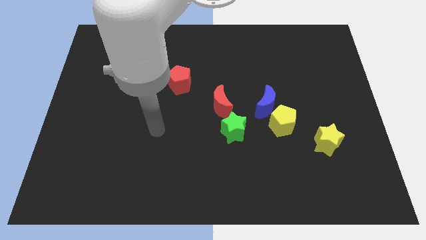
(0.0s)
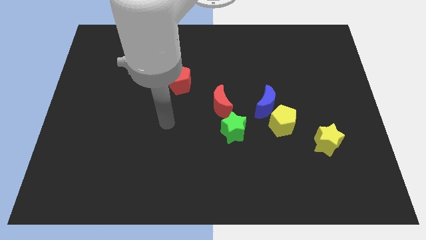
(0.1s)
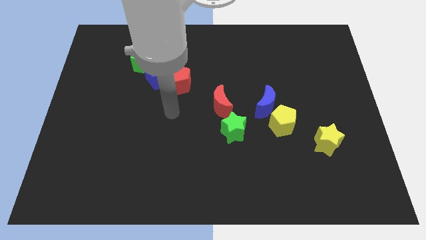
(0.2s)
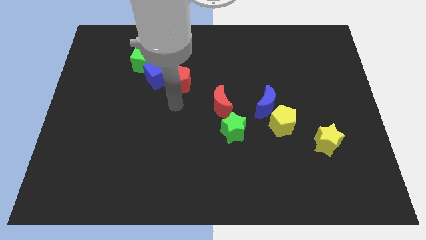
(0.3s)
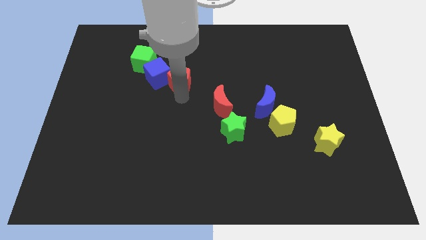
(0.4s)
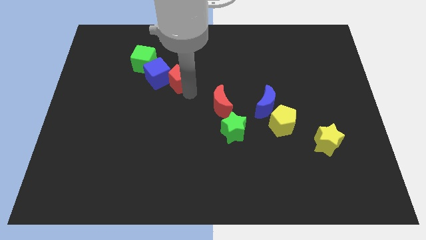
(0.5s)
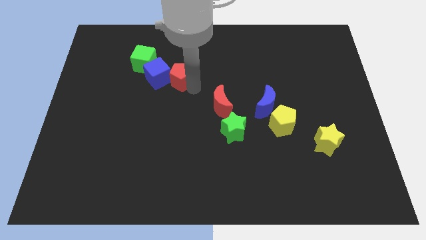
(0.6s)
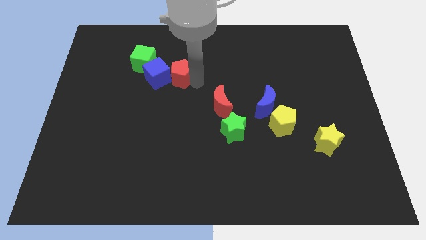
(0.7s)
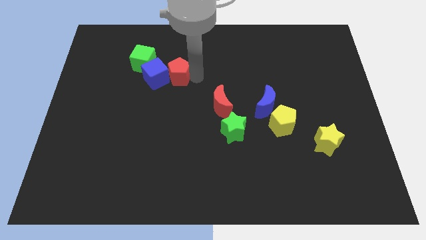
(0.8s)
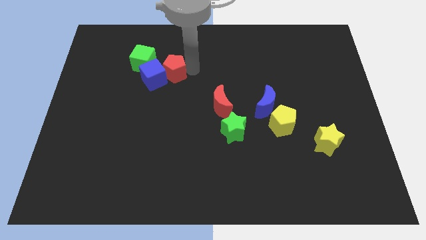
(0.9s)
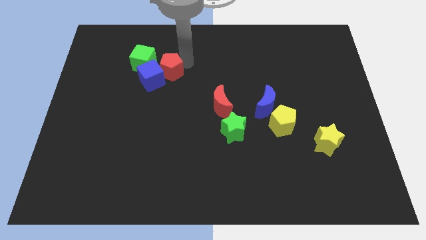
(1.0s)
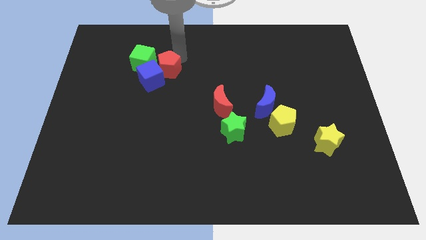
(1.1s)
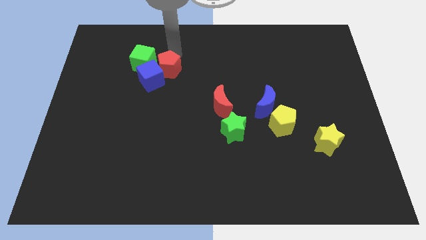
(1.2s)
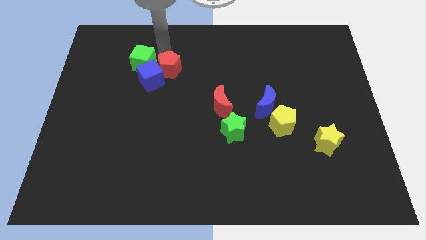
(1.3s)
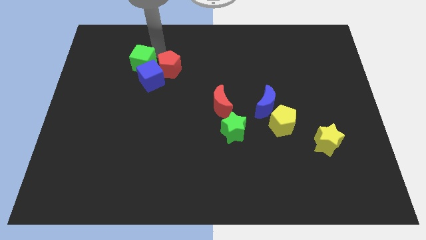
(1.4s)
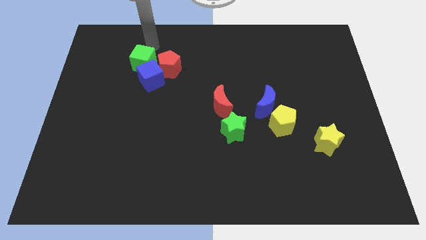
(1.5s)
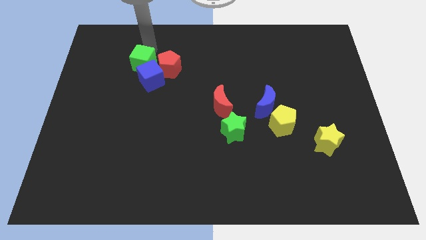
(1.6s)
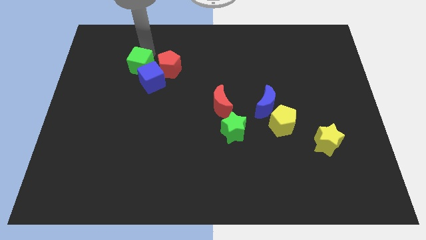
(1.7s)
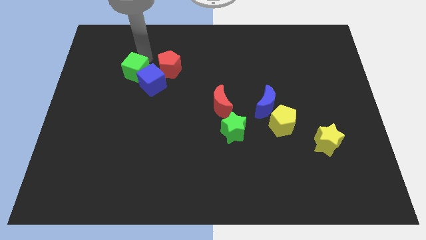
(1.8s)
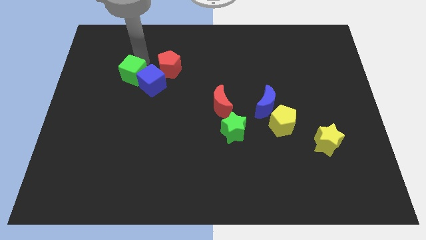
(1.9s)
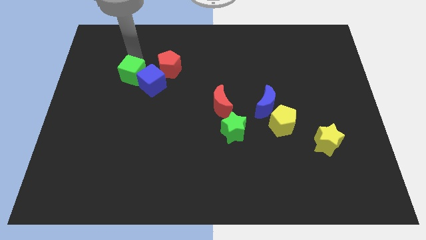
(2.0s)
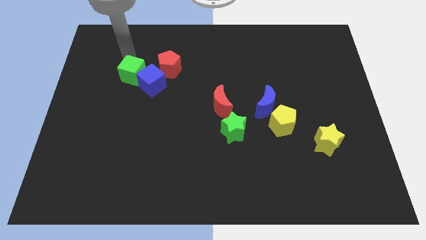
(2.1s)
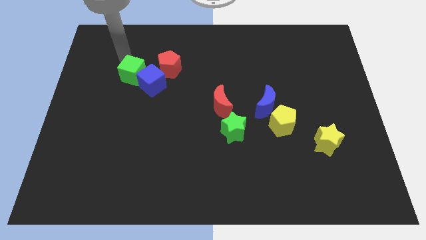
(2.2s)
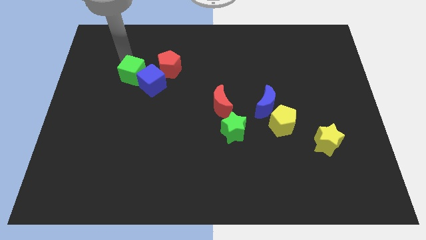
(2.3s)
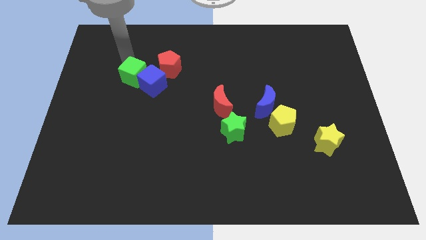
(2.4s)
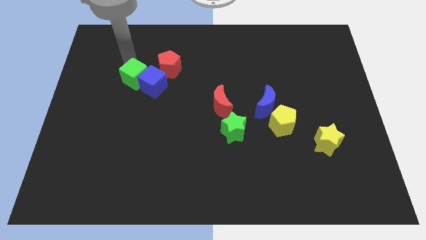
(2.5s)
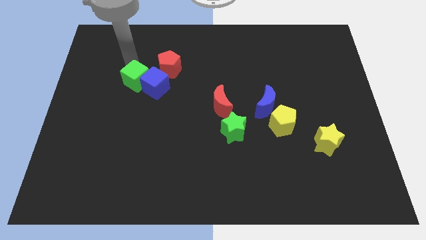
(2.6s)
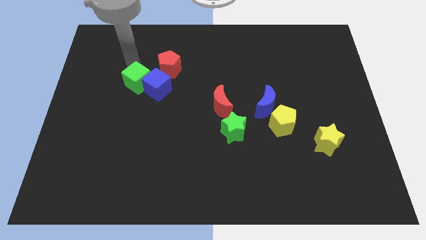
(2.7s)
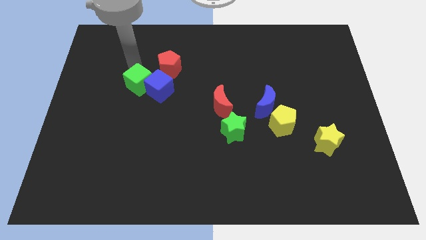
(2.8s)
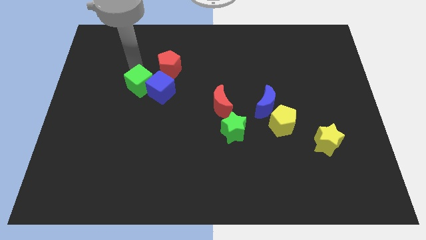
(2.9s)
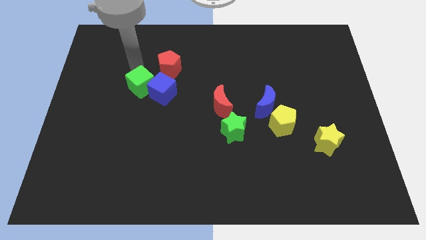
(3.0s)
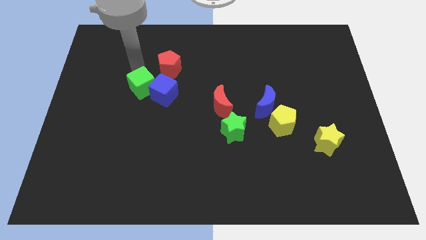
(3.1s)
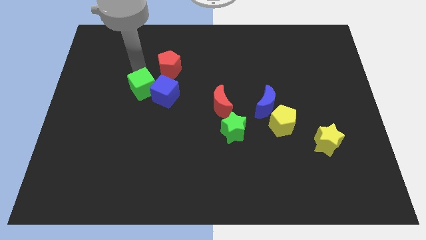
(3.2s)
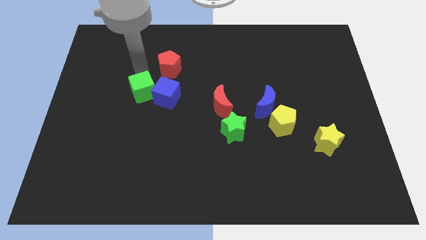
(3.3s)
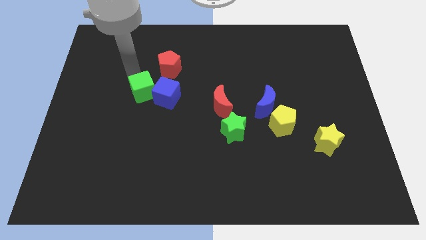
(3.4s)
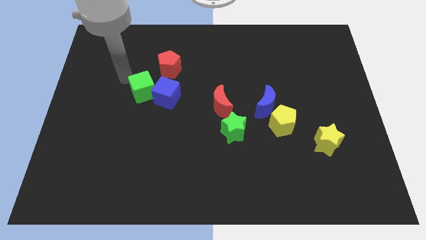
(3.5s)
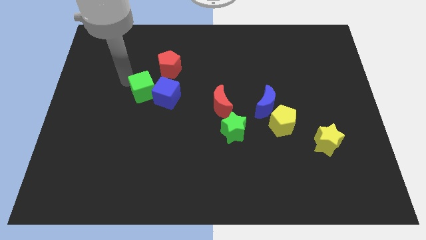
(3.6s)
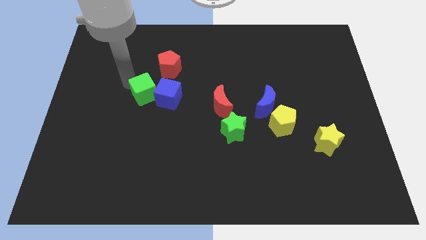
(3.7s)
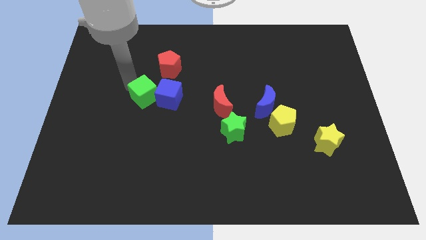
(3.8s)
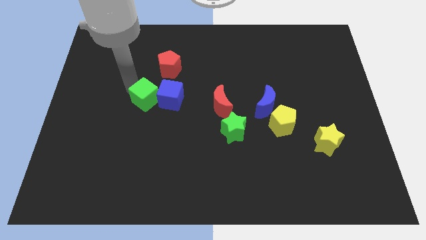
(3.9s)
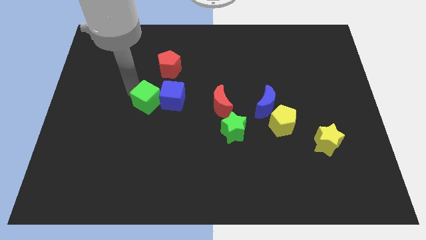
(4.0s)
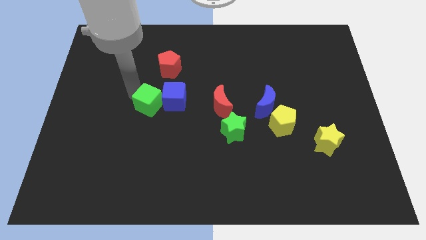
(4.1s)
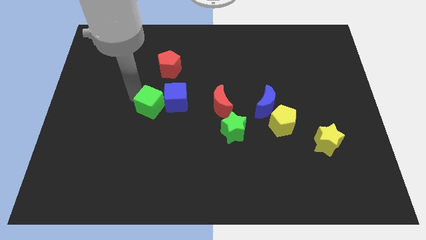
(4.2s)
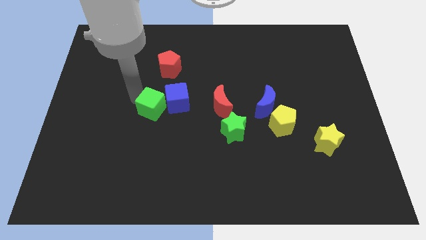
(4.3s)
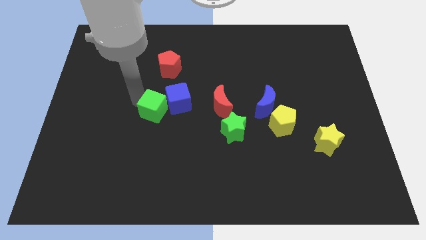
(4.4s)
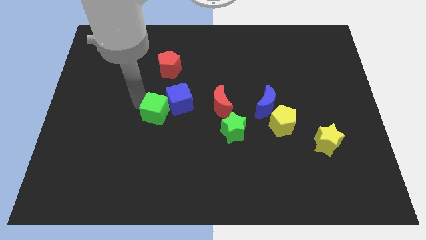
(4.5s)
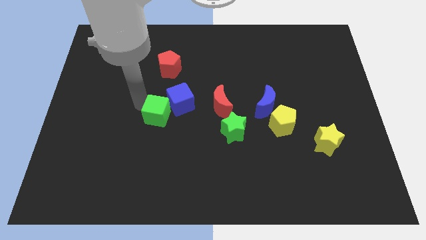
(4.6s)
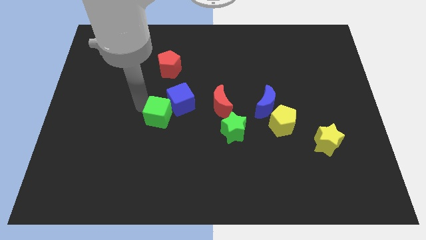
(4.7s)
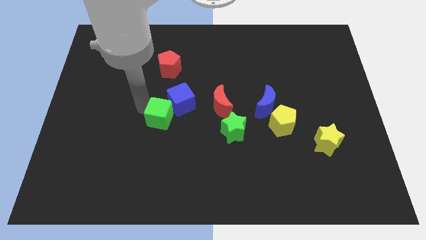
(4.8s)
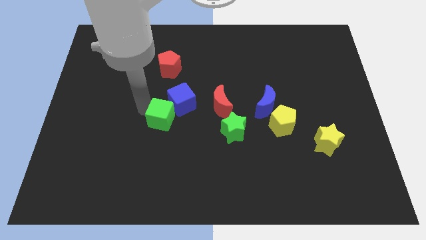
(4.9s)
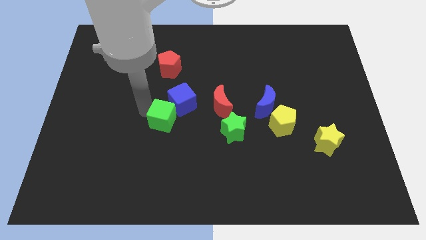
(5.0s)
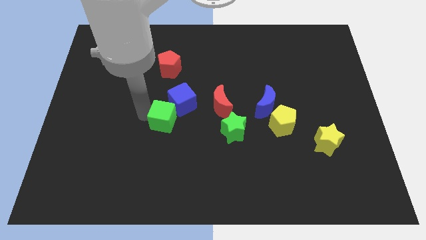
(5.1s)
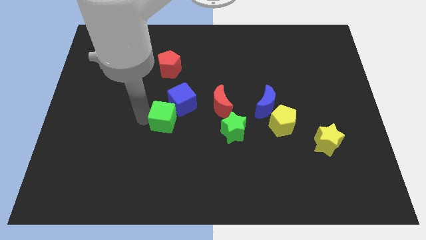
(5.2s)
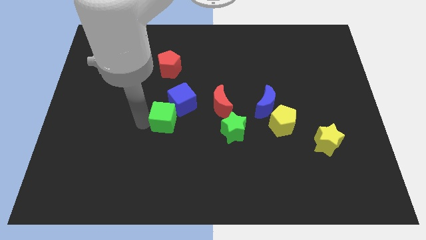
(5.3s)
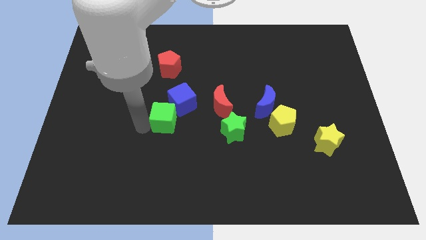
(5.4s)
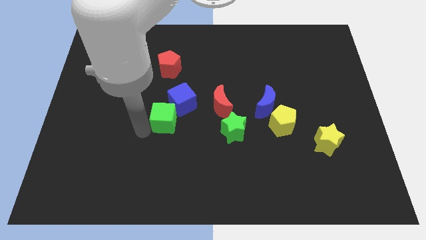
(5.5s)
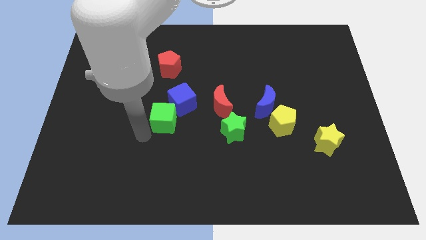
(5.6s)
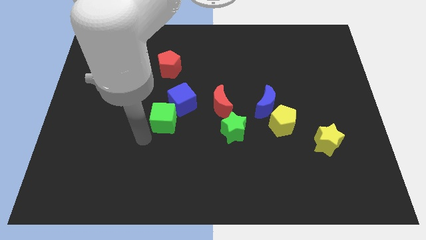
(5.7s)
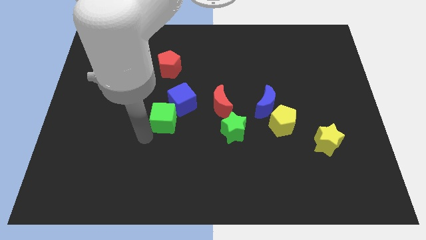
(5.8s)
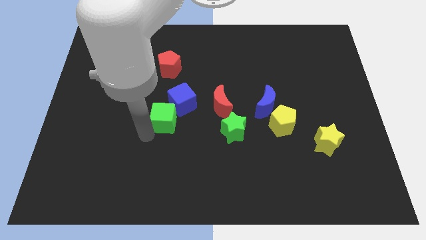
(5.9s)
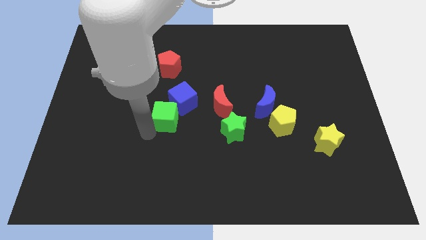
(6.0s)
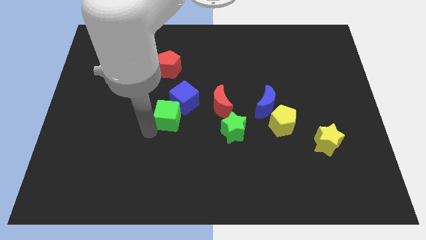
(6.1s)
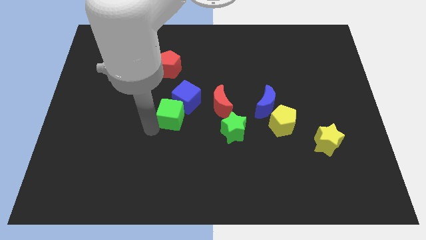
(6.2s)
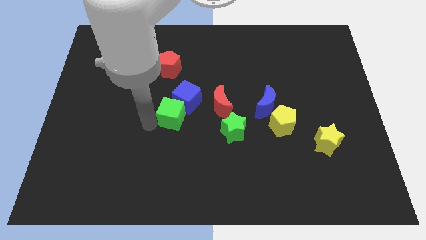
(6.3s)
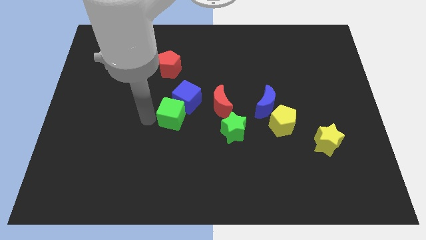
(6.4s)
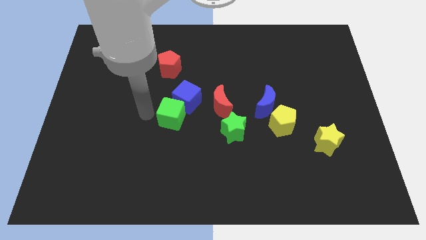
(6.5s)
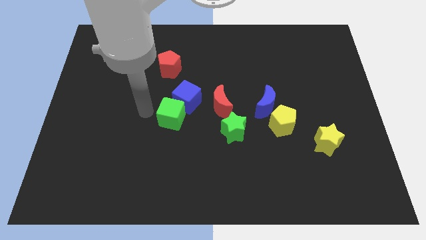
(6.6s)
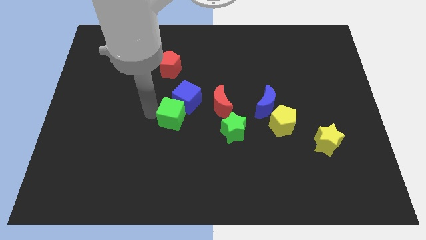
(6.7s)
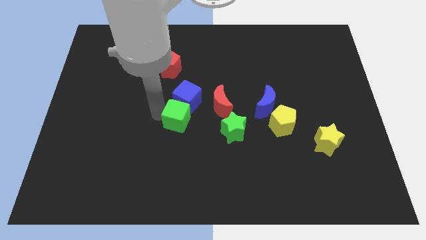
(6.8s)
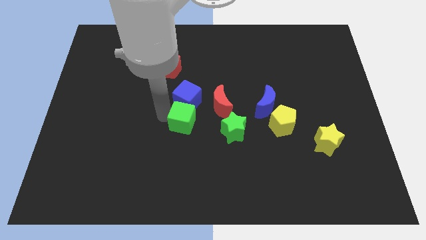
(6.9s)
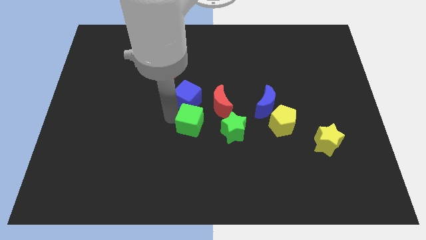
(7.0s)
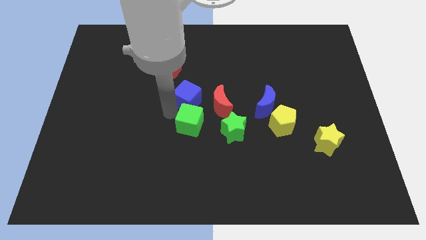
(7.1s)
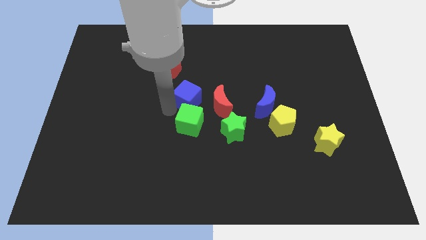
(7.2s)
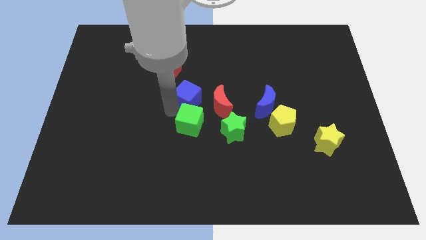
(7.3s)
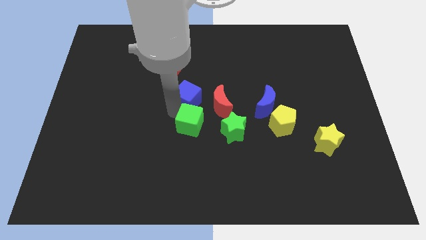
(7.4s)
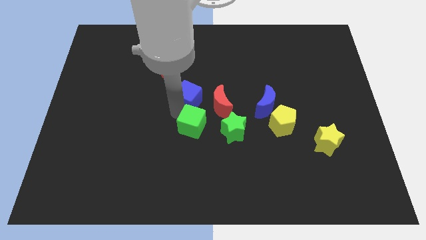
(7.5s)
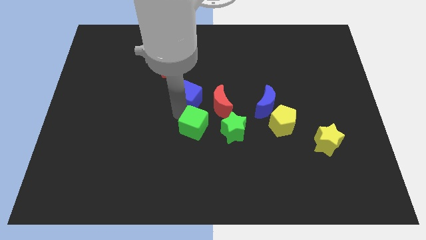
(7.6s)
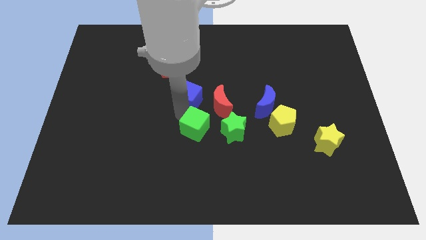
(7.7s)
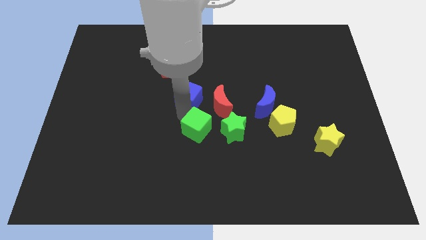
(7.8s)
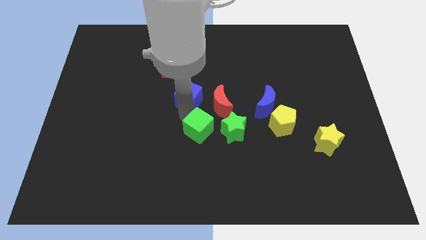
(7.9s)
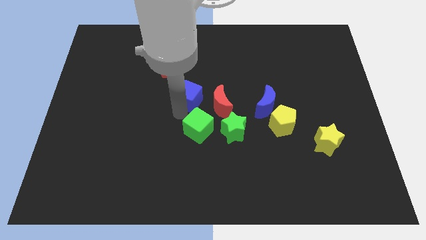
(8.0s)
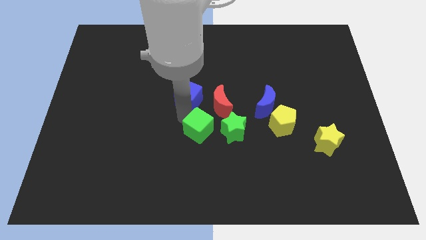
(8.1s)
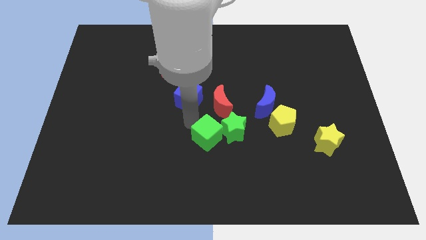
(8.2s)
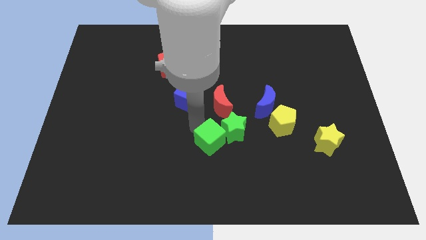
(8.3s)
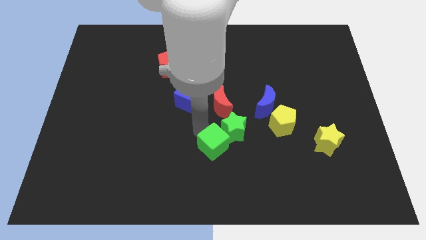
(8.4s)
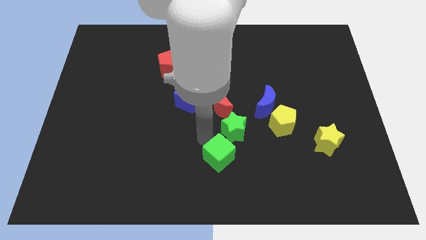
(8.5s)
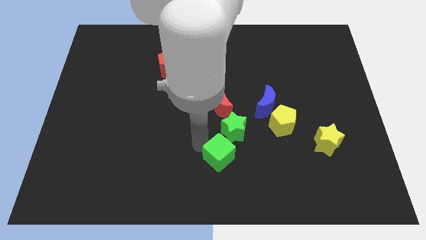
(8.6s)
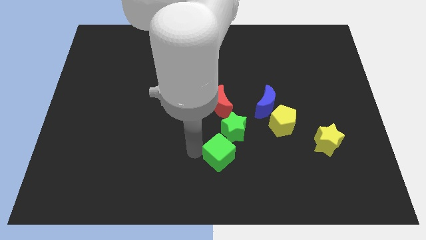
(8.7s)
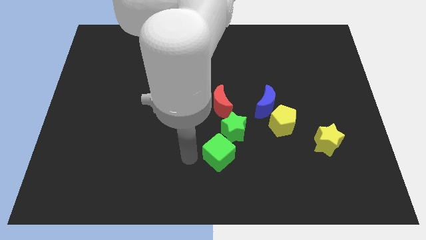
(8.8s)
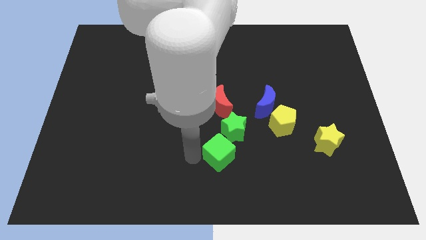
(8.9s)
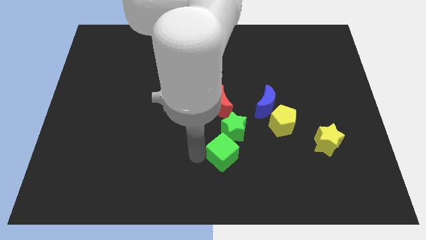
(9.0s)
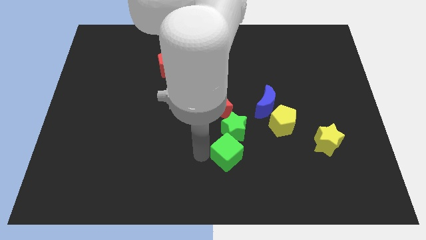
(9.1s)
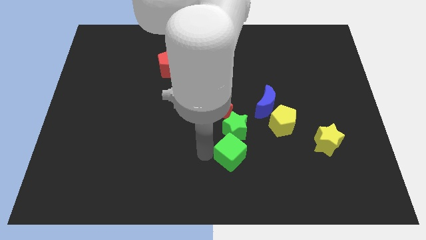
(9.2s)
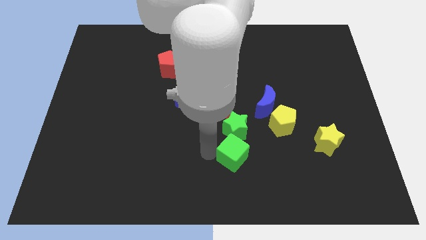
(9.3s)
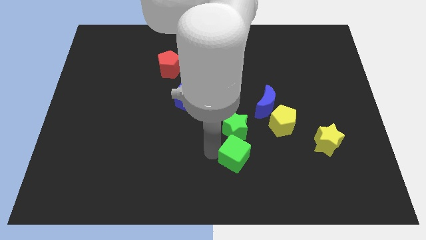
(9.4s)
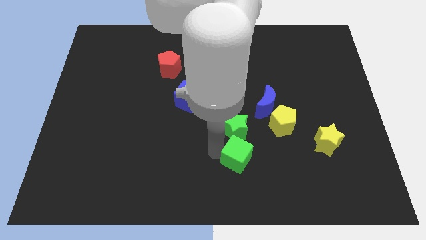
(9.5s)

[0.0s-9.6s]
push the green cube diagonally down and to the right of the green star
